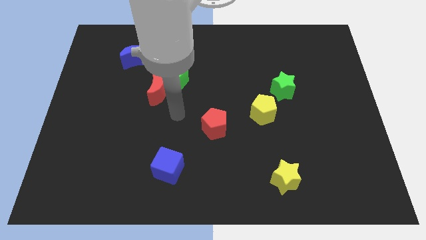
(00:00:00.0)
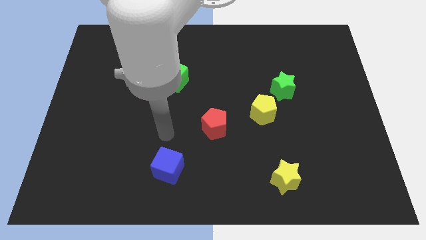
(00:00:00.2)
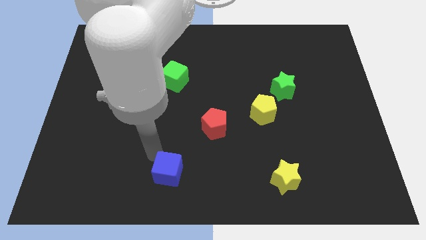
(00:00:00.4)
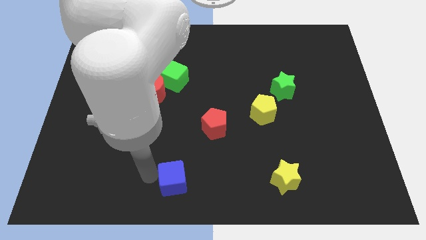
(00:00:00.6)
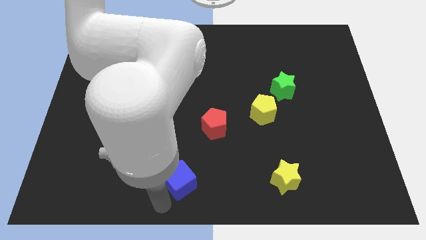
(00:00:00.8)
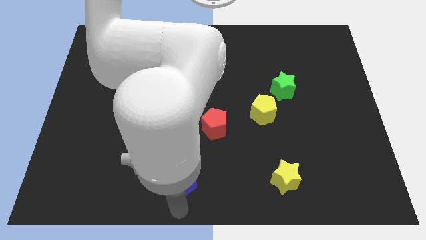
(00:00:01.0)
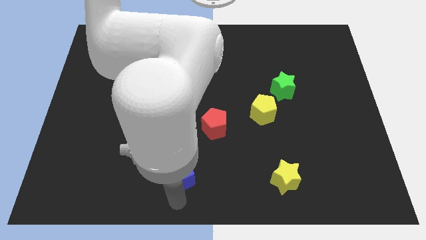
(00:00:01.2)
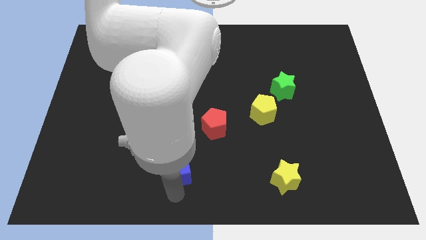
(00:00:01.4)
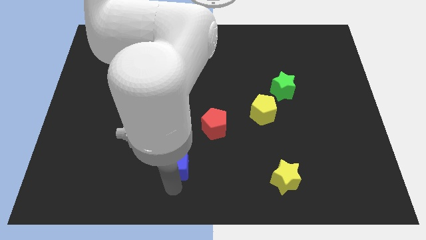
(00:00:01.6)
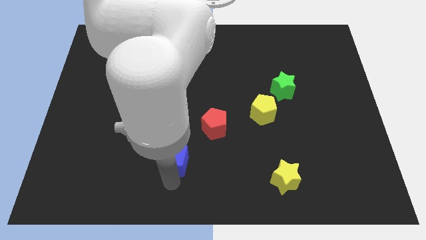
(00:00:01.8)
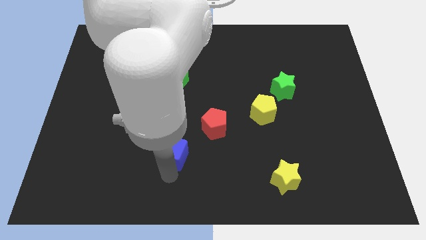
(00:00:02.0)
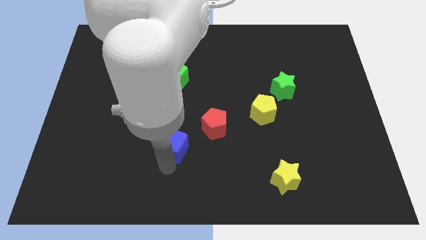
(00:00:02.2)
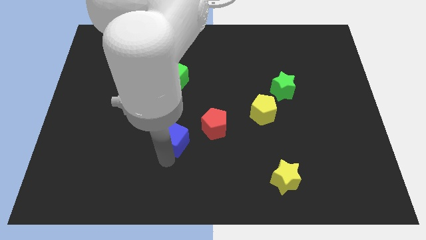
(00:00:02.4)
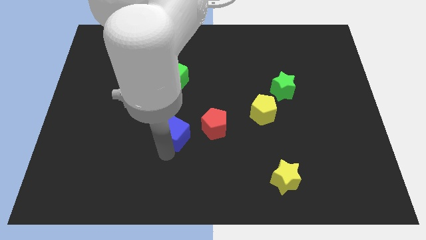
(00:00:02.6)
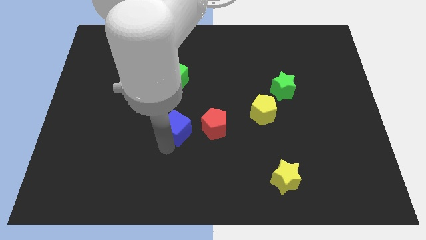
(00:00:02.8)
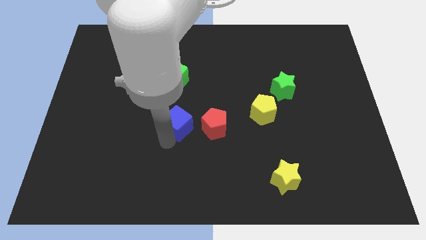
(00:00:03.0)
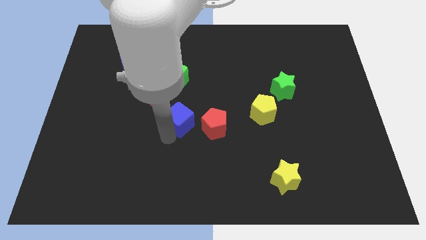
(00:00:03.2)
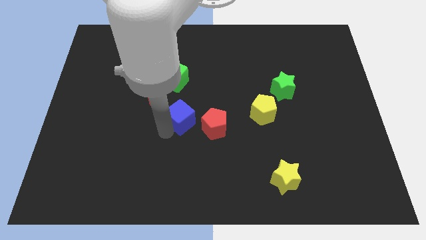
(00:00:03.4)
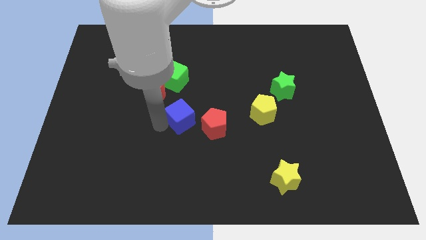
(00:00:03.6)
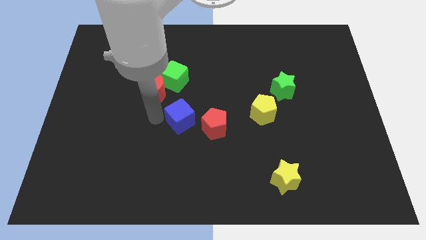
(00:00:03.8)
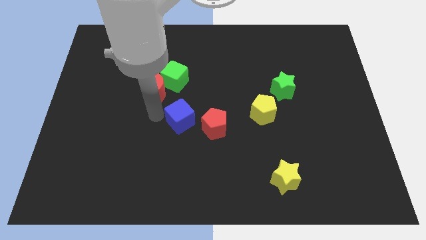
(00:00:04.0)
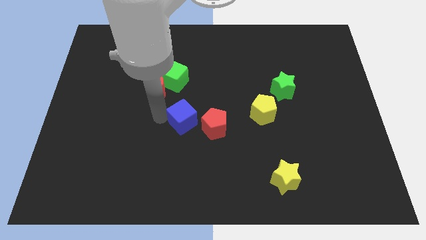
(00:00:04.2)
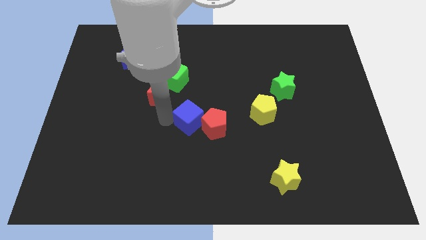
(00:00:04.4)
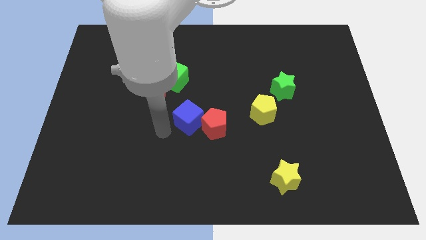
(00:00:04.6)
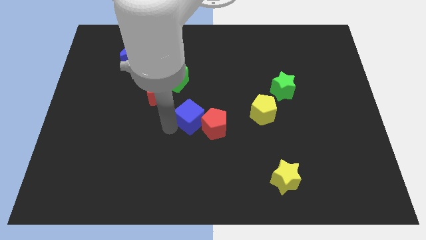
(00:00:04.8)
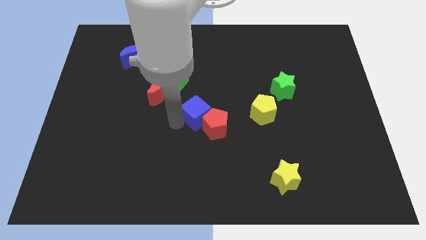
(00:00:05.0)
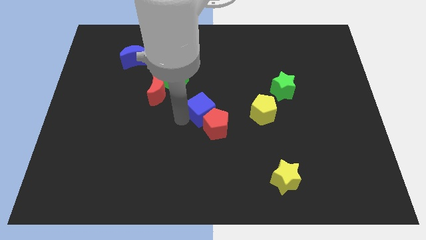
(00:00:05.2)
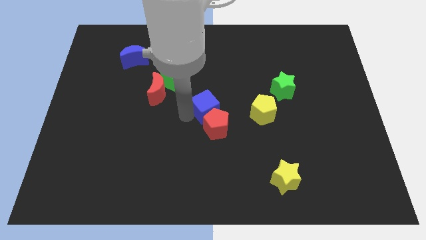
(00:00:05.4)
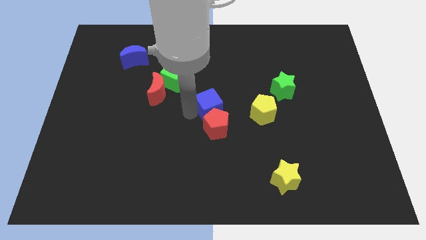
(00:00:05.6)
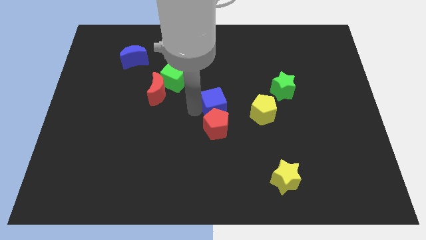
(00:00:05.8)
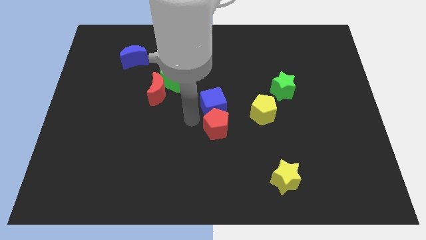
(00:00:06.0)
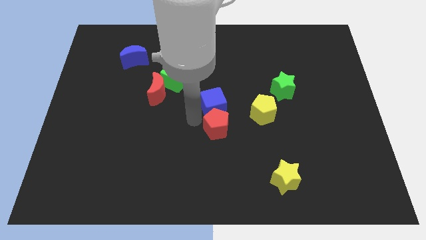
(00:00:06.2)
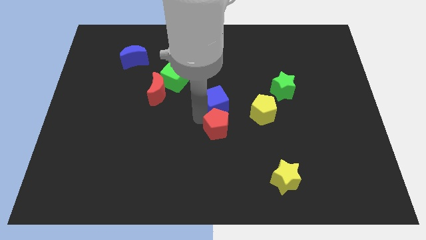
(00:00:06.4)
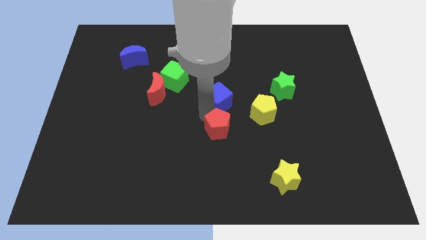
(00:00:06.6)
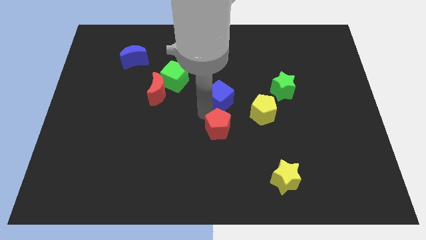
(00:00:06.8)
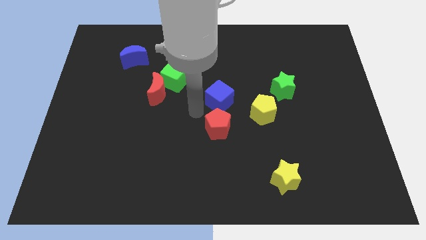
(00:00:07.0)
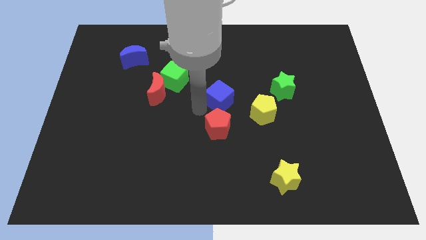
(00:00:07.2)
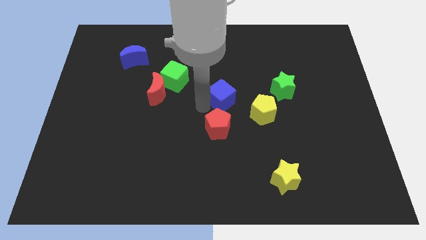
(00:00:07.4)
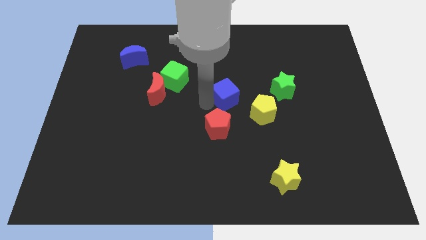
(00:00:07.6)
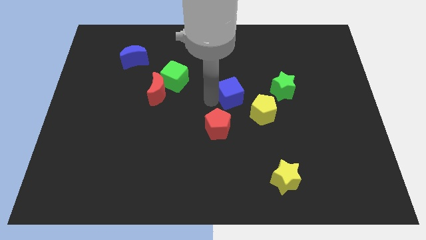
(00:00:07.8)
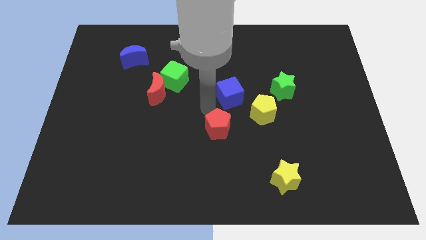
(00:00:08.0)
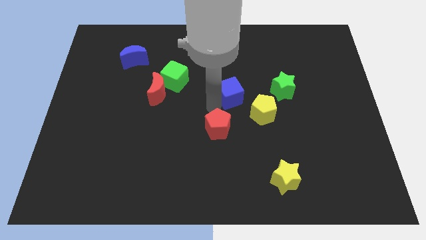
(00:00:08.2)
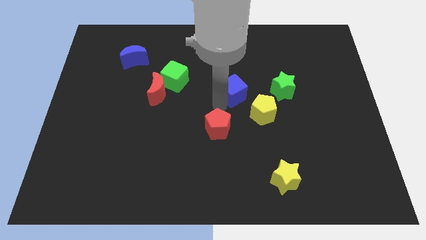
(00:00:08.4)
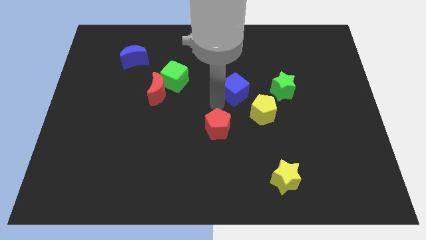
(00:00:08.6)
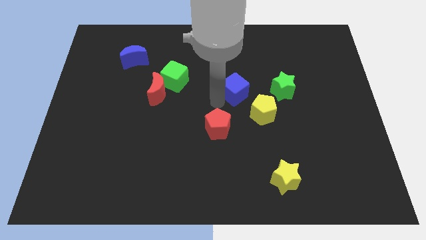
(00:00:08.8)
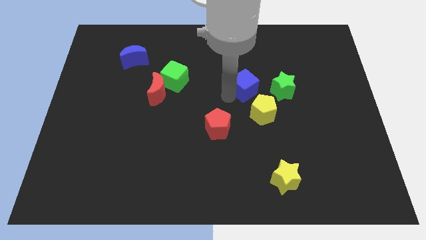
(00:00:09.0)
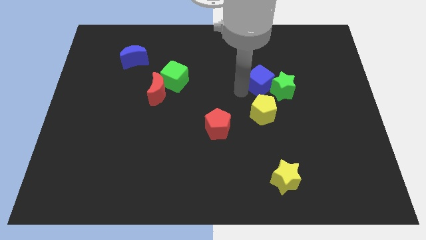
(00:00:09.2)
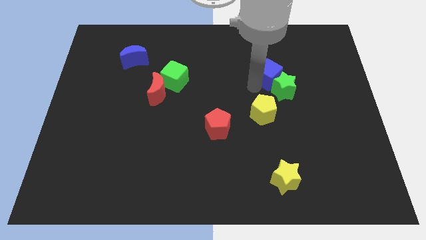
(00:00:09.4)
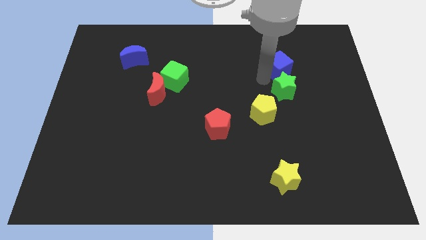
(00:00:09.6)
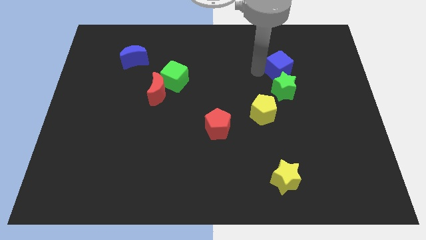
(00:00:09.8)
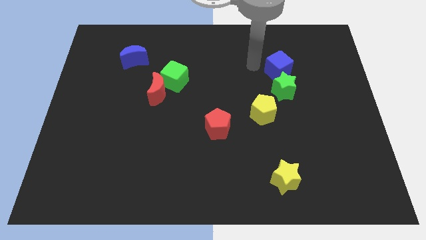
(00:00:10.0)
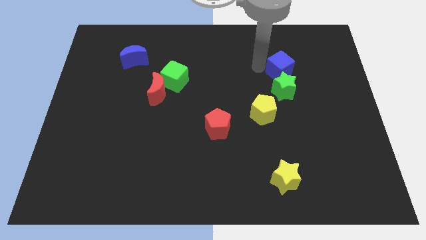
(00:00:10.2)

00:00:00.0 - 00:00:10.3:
move the blue cube to the top right side of the green star

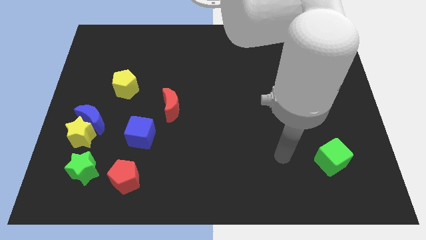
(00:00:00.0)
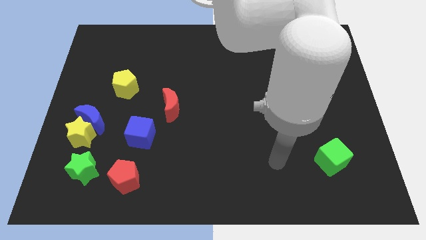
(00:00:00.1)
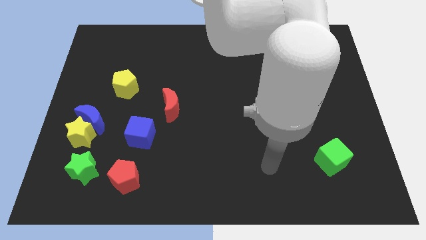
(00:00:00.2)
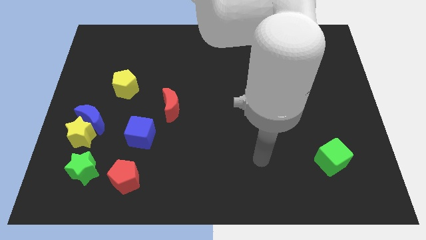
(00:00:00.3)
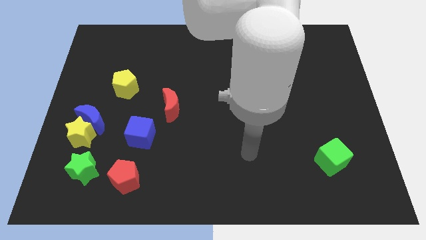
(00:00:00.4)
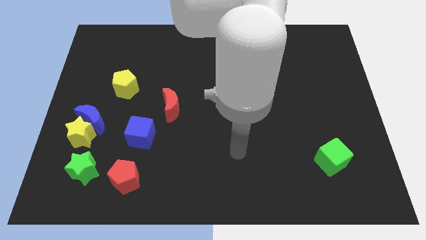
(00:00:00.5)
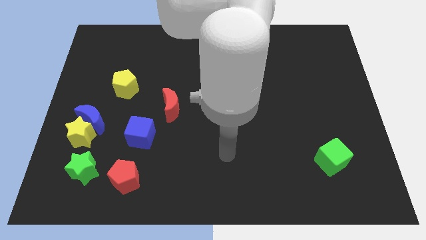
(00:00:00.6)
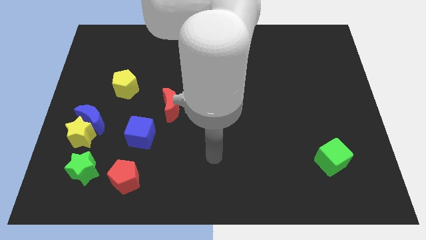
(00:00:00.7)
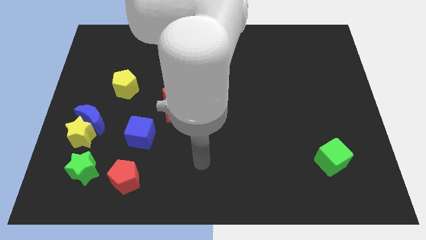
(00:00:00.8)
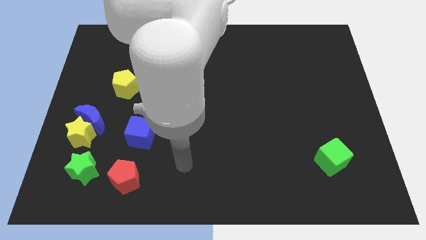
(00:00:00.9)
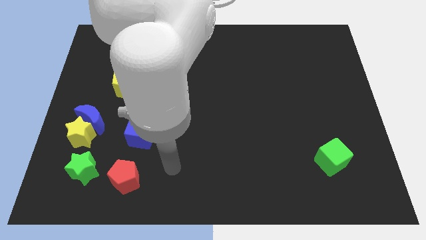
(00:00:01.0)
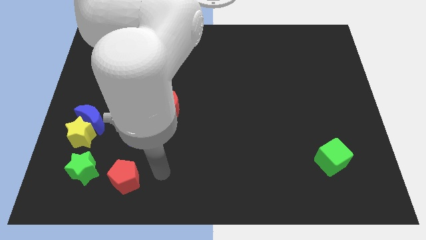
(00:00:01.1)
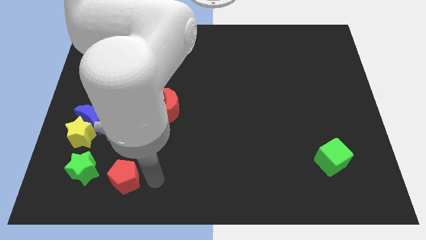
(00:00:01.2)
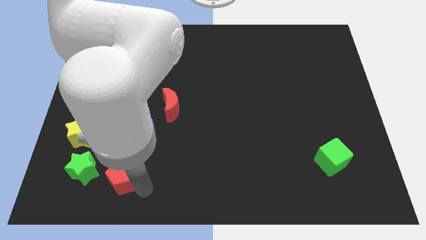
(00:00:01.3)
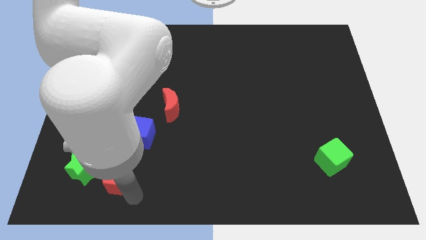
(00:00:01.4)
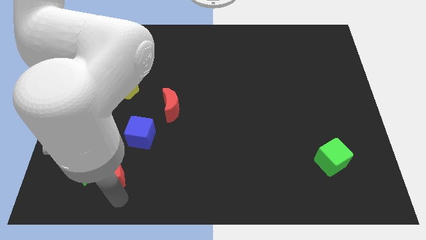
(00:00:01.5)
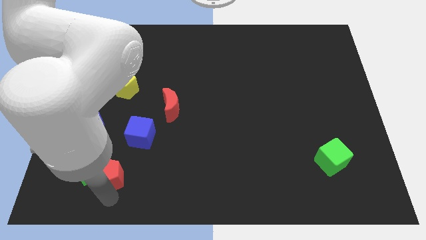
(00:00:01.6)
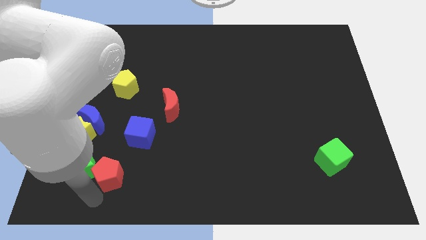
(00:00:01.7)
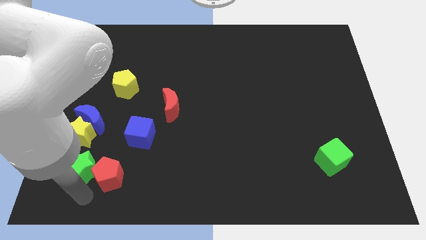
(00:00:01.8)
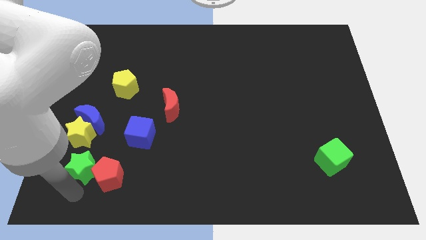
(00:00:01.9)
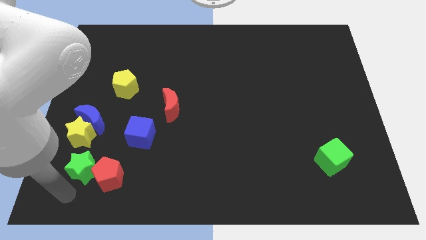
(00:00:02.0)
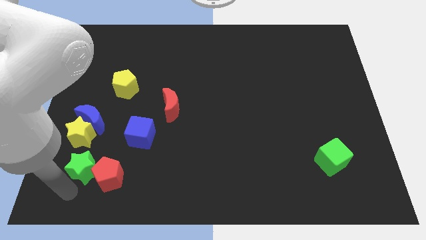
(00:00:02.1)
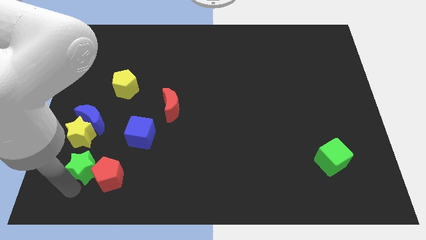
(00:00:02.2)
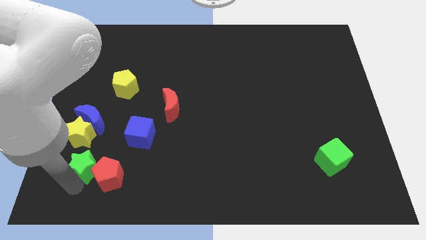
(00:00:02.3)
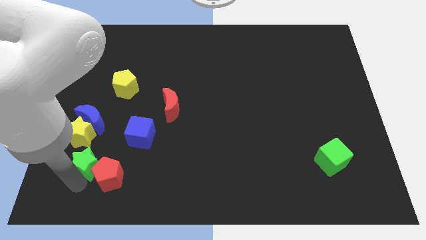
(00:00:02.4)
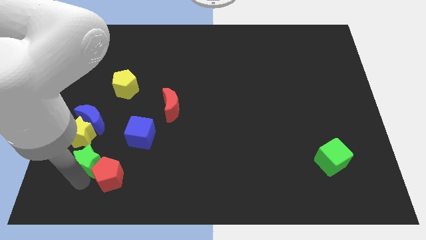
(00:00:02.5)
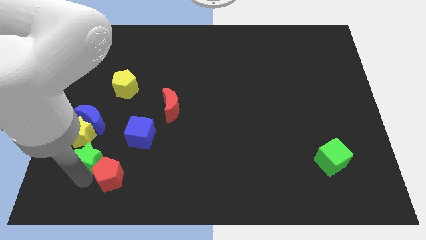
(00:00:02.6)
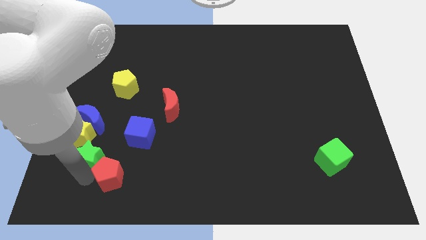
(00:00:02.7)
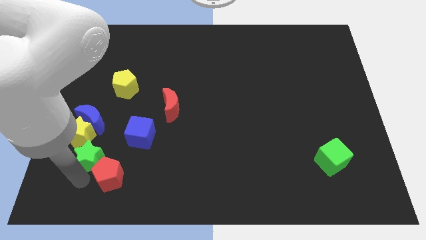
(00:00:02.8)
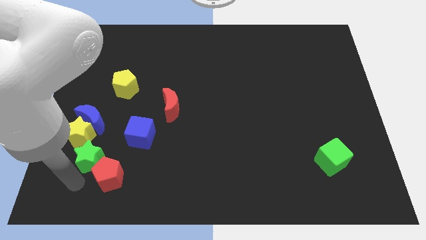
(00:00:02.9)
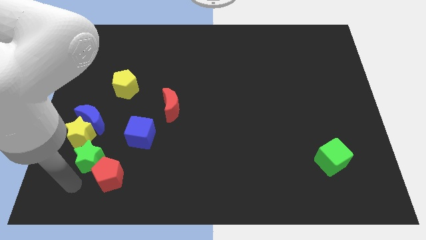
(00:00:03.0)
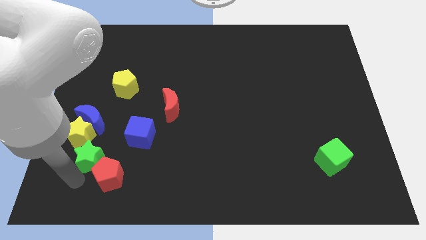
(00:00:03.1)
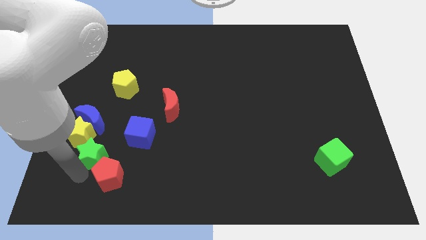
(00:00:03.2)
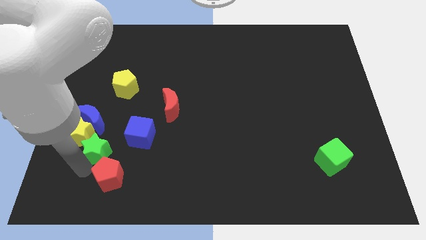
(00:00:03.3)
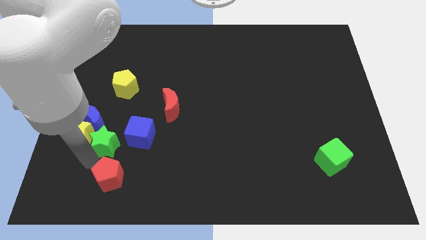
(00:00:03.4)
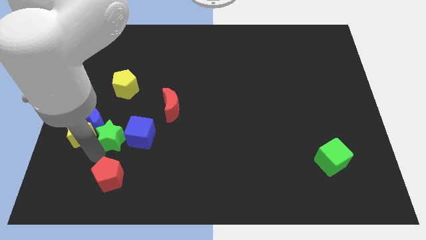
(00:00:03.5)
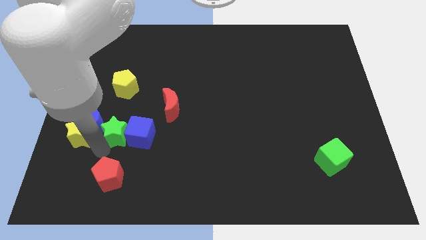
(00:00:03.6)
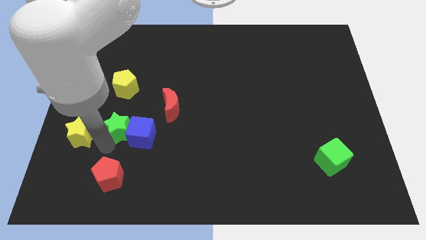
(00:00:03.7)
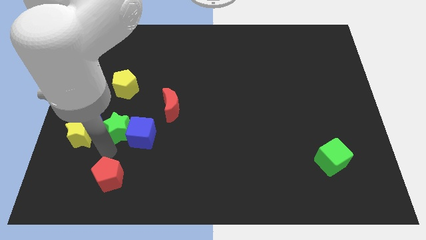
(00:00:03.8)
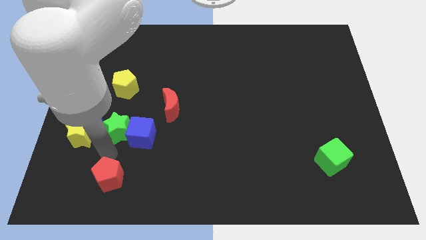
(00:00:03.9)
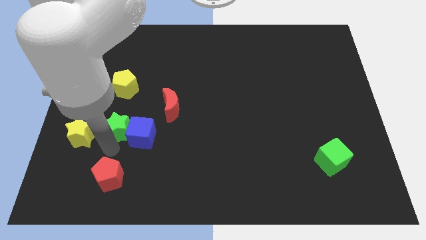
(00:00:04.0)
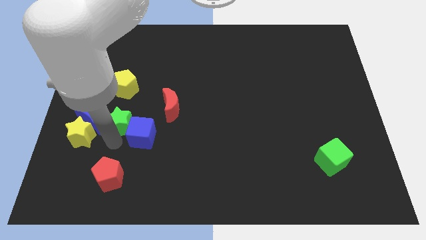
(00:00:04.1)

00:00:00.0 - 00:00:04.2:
put the green star left of the red moon
